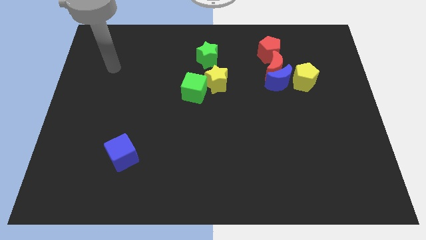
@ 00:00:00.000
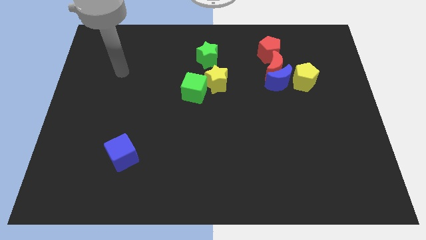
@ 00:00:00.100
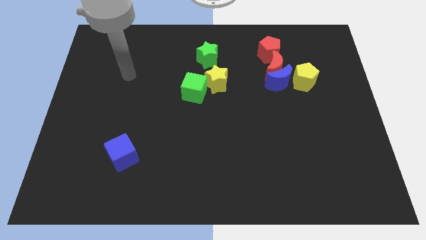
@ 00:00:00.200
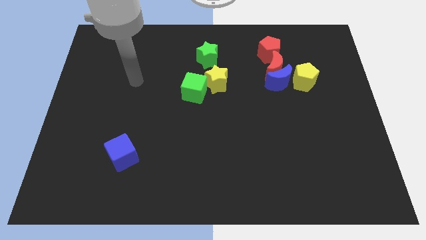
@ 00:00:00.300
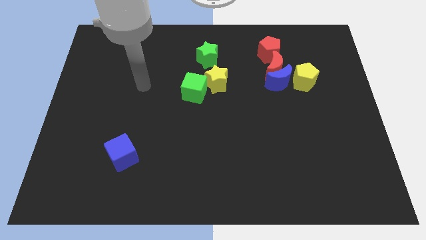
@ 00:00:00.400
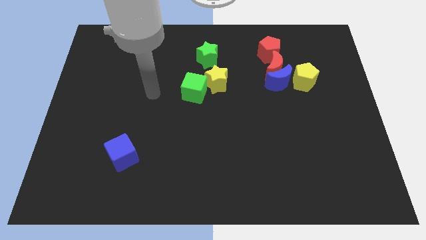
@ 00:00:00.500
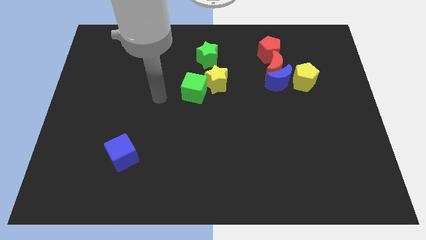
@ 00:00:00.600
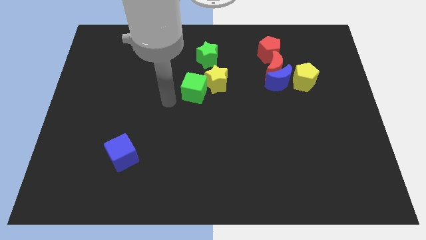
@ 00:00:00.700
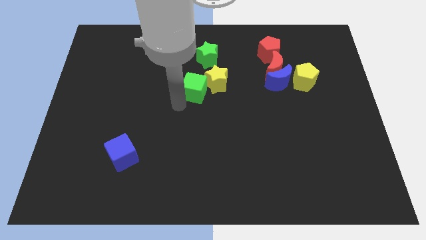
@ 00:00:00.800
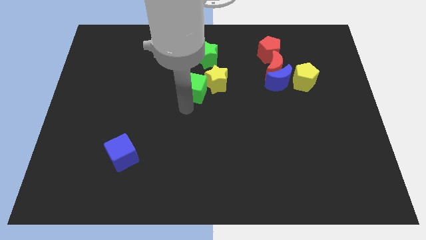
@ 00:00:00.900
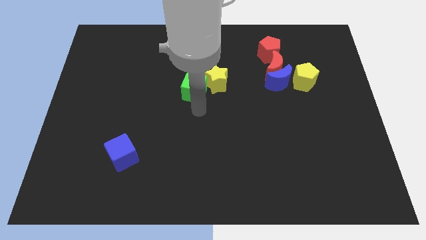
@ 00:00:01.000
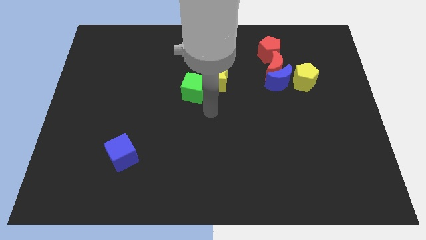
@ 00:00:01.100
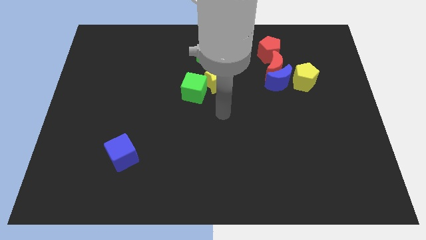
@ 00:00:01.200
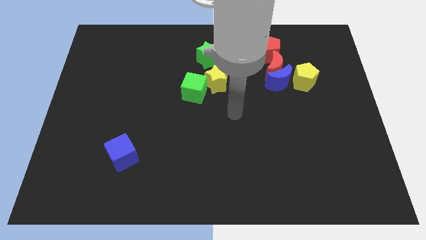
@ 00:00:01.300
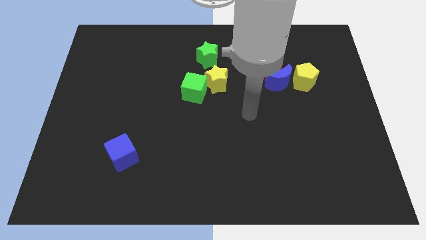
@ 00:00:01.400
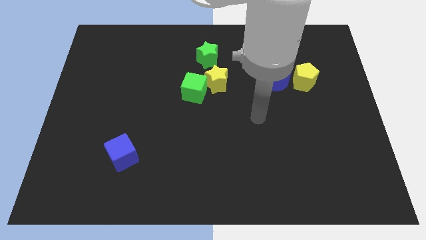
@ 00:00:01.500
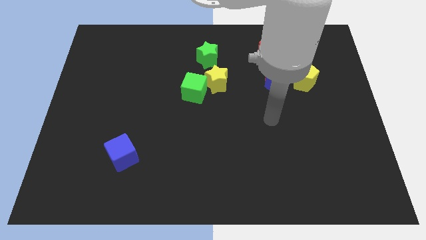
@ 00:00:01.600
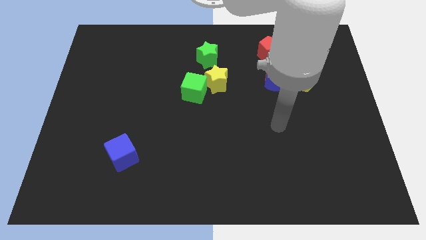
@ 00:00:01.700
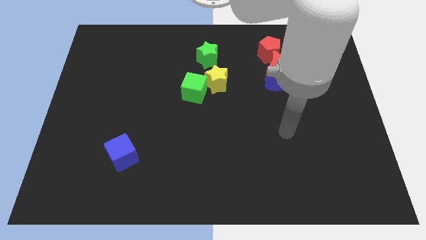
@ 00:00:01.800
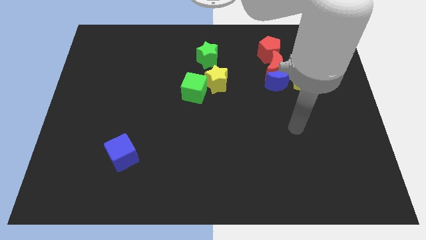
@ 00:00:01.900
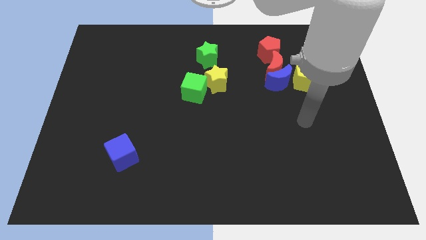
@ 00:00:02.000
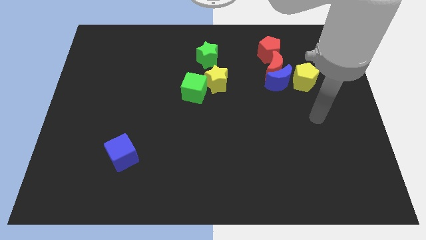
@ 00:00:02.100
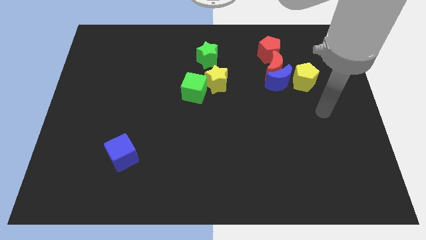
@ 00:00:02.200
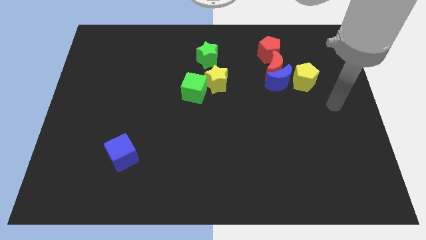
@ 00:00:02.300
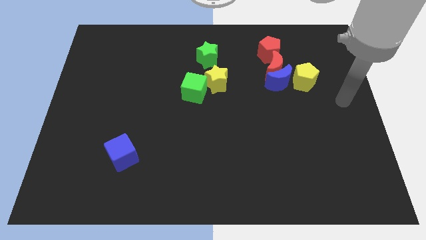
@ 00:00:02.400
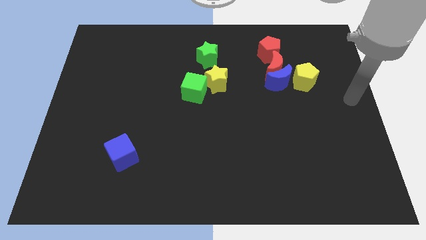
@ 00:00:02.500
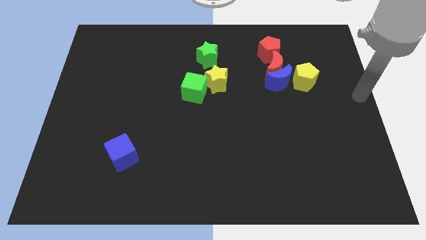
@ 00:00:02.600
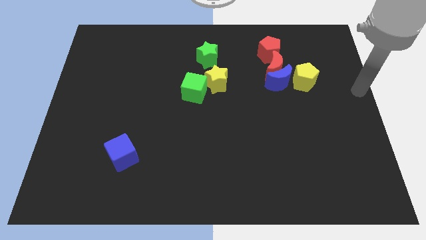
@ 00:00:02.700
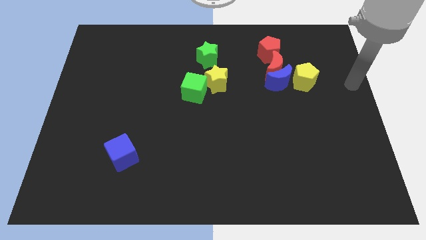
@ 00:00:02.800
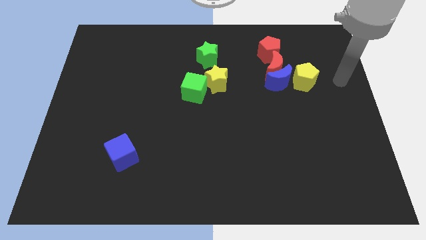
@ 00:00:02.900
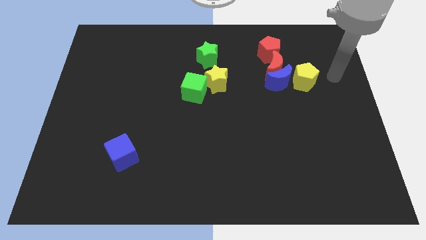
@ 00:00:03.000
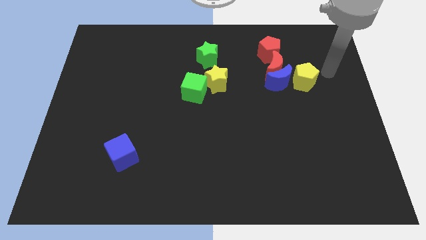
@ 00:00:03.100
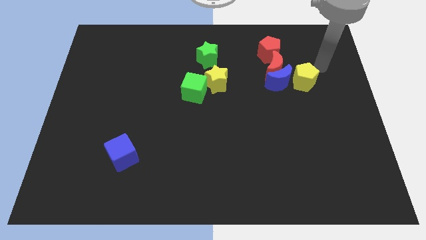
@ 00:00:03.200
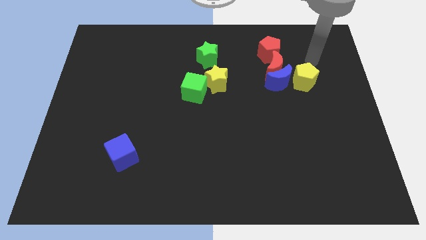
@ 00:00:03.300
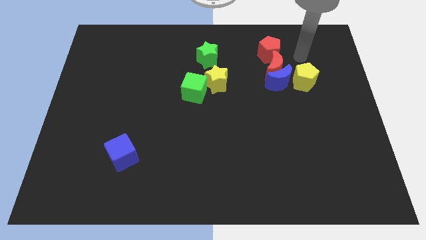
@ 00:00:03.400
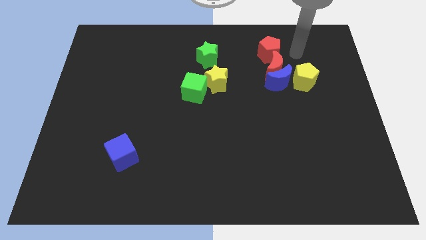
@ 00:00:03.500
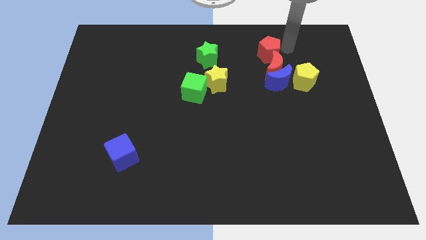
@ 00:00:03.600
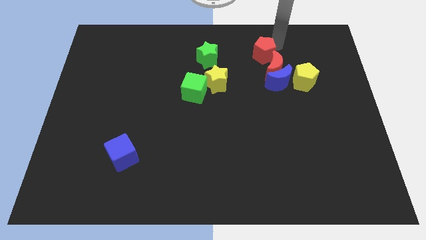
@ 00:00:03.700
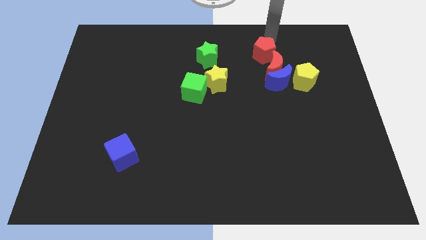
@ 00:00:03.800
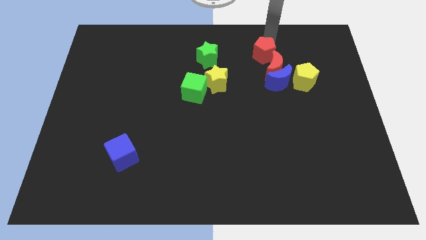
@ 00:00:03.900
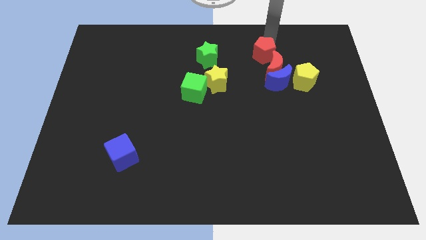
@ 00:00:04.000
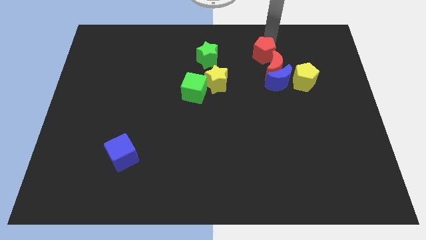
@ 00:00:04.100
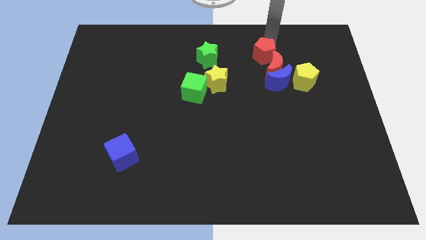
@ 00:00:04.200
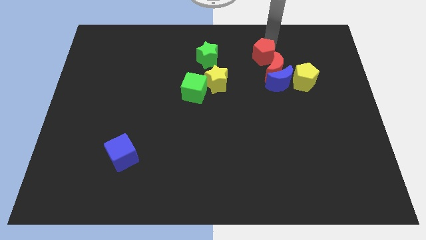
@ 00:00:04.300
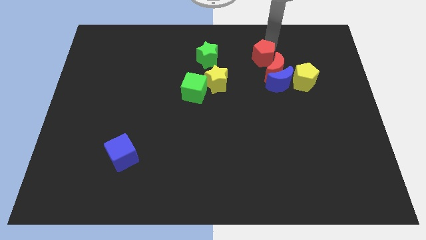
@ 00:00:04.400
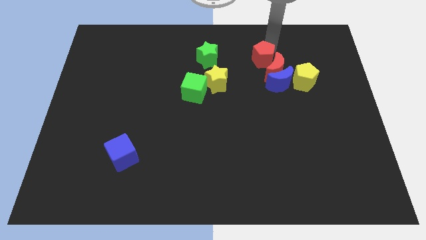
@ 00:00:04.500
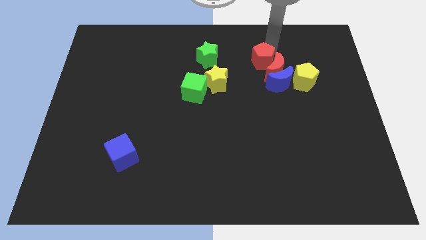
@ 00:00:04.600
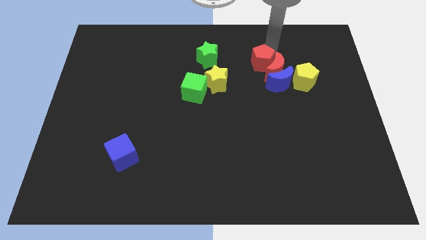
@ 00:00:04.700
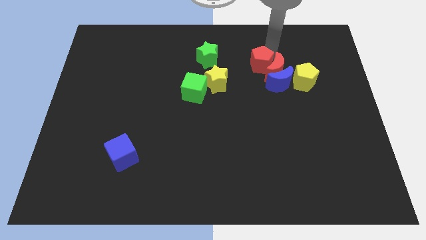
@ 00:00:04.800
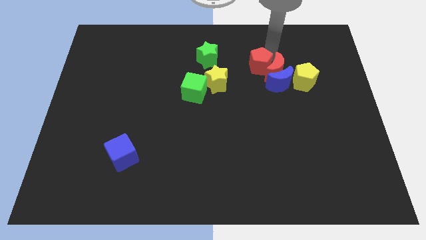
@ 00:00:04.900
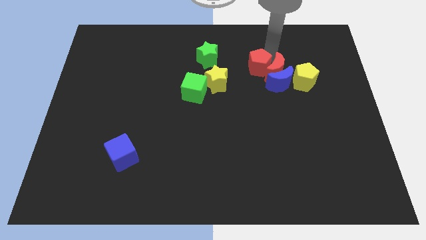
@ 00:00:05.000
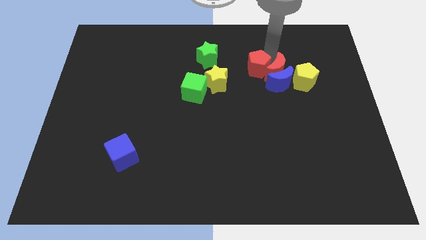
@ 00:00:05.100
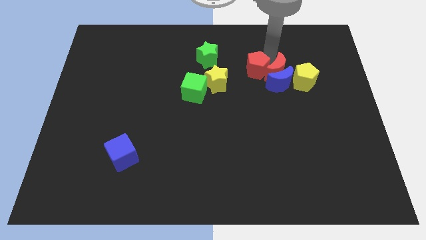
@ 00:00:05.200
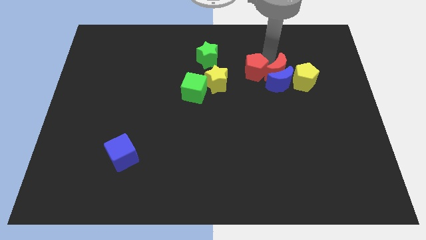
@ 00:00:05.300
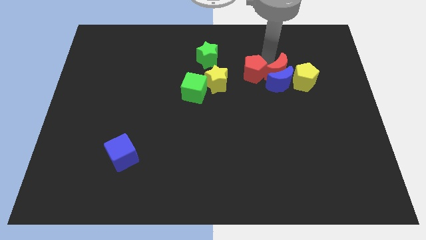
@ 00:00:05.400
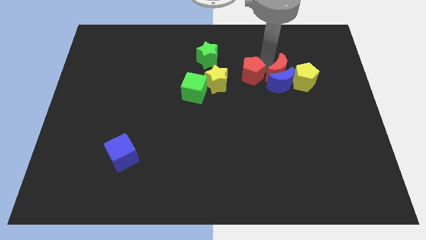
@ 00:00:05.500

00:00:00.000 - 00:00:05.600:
slide the red pentagon to the center
